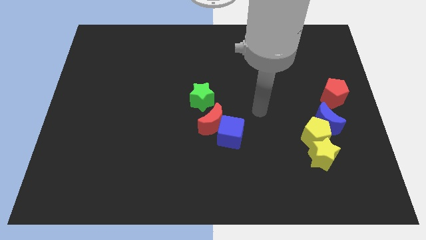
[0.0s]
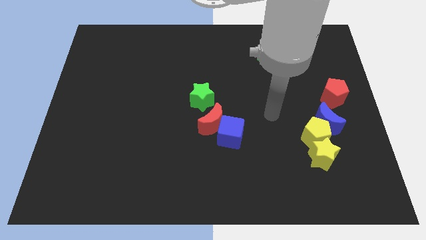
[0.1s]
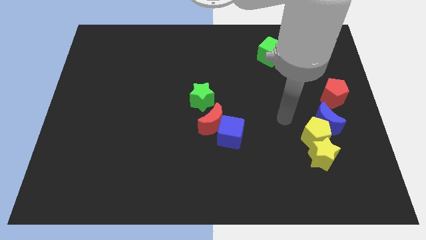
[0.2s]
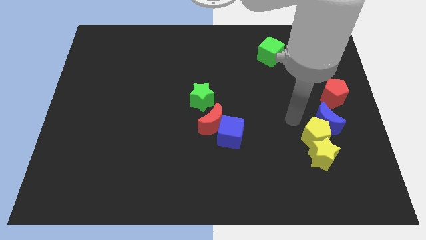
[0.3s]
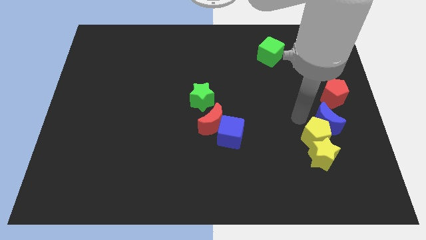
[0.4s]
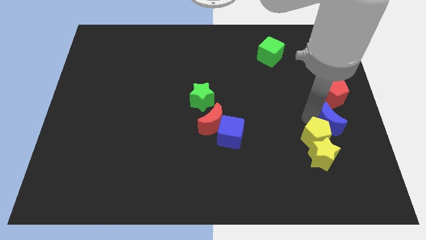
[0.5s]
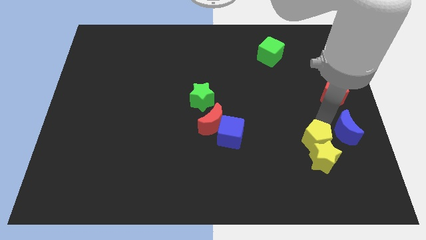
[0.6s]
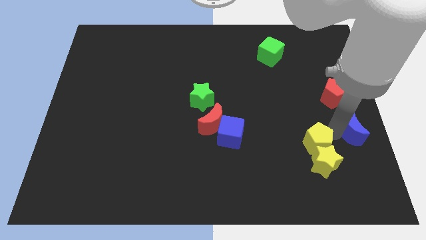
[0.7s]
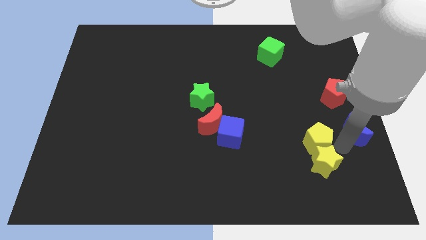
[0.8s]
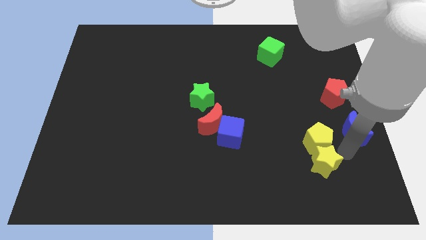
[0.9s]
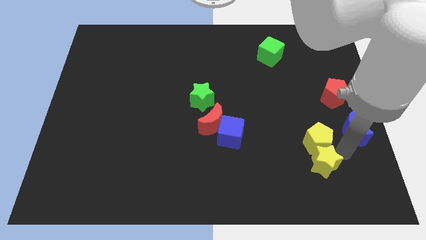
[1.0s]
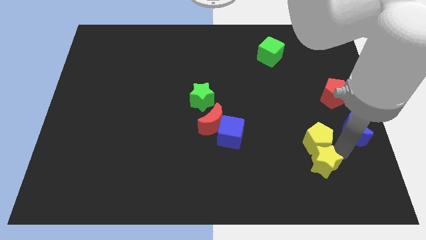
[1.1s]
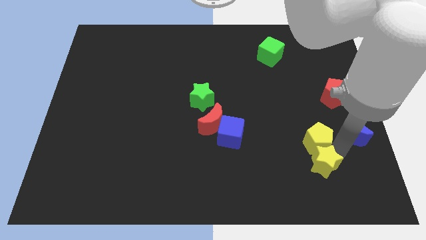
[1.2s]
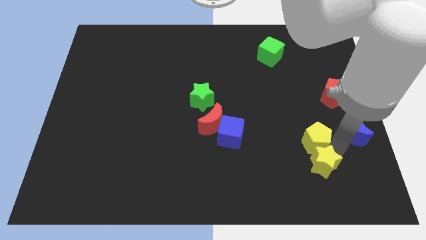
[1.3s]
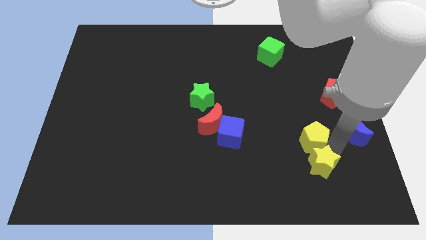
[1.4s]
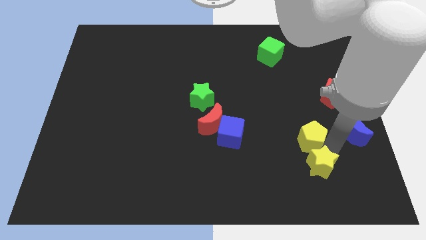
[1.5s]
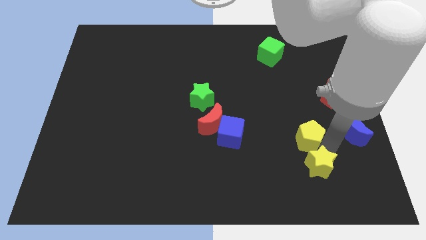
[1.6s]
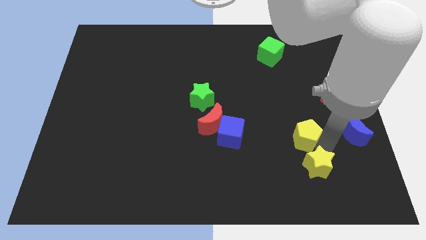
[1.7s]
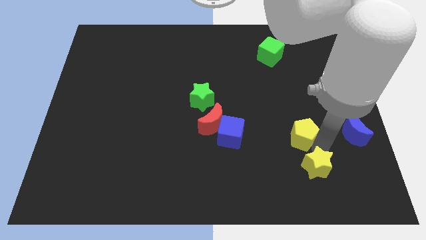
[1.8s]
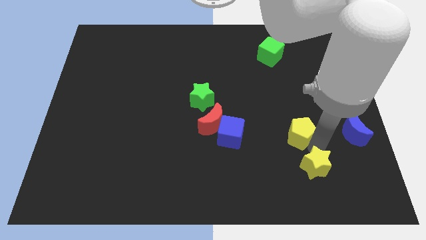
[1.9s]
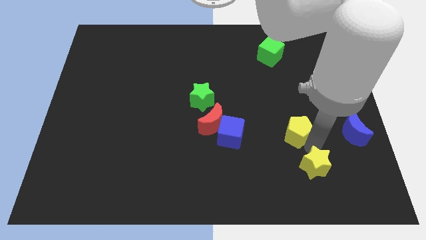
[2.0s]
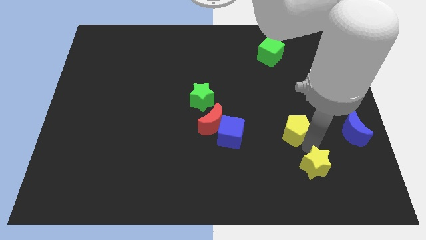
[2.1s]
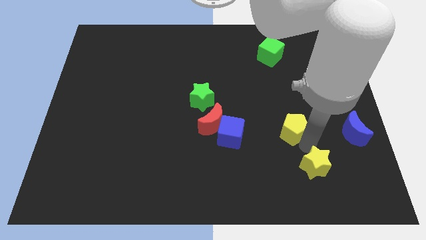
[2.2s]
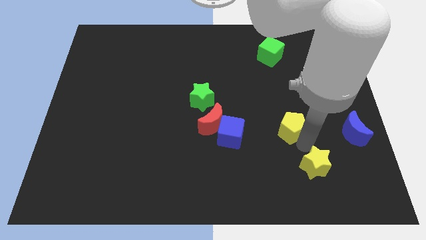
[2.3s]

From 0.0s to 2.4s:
move the yellow pentagon away from the blue moon and yellow star

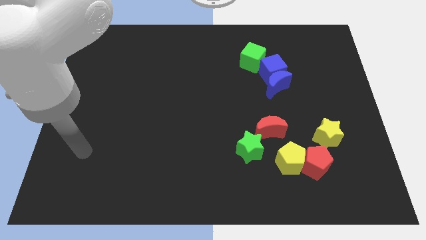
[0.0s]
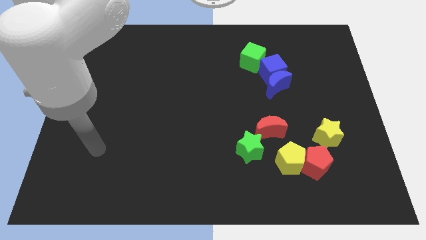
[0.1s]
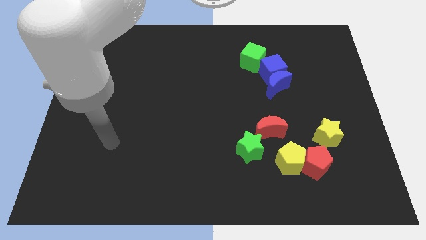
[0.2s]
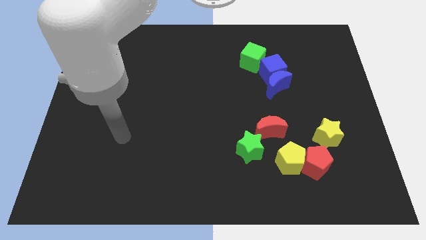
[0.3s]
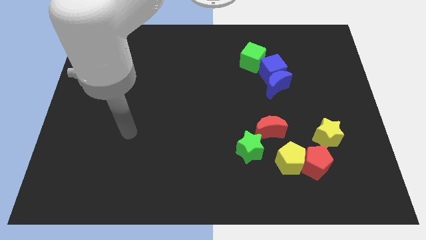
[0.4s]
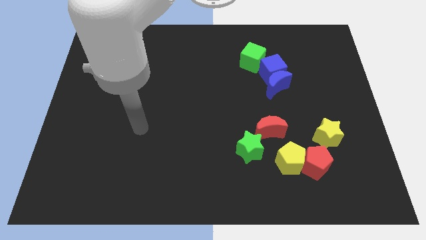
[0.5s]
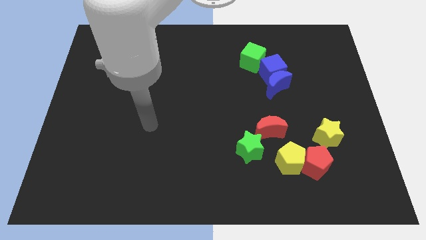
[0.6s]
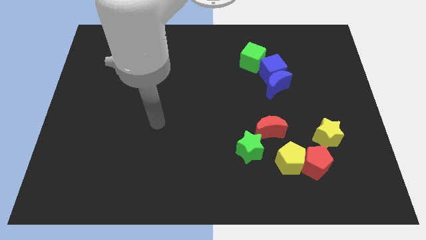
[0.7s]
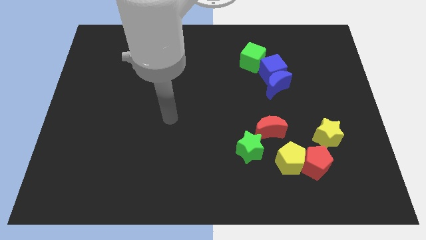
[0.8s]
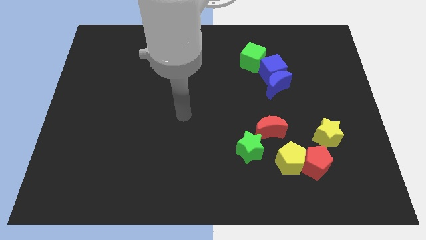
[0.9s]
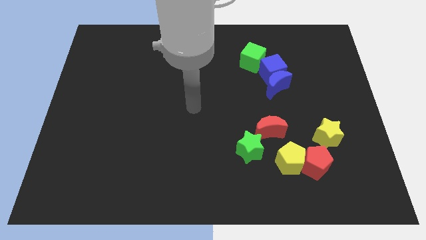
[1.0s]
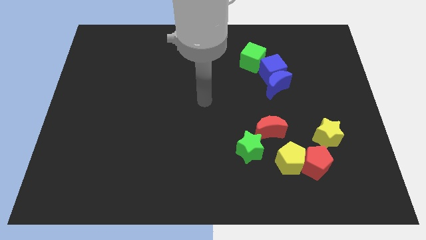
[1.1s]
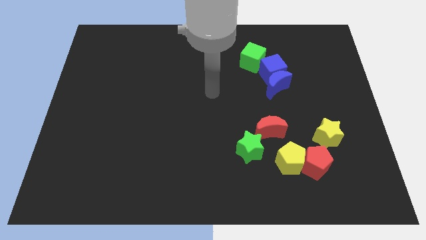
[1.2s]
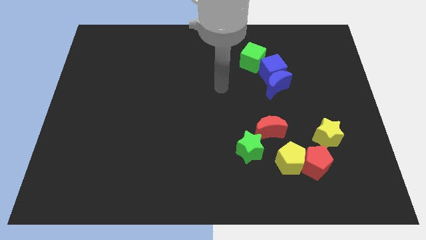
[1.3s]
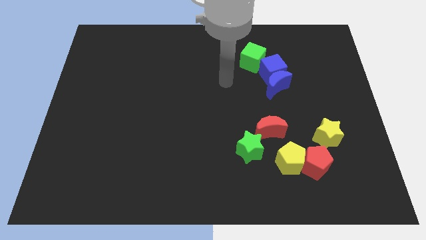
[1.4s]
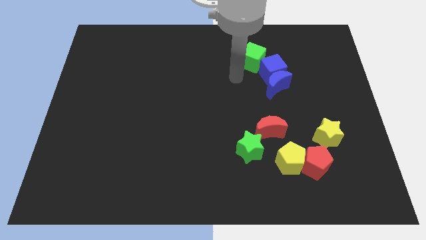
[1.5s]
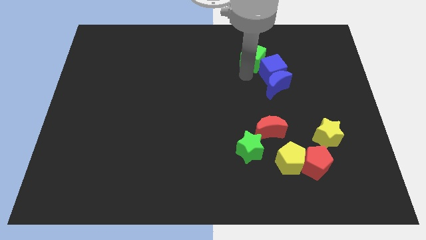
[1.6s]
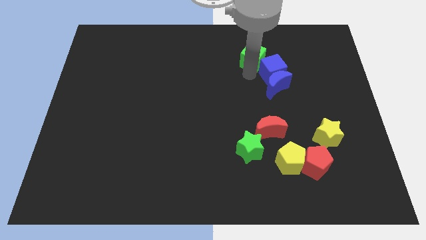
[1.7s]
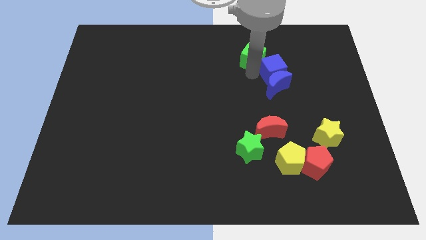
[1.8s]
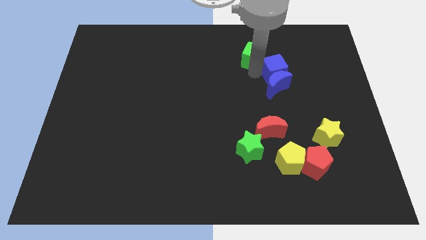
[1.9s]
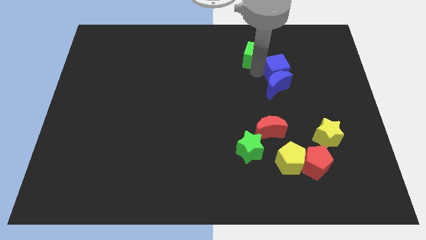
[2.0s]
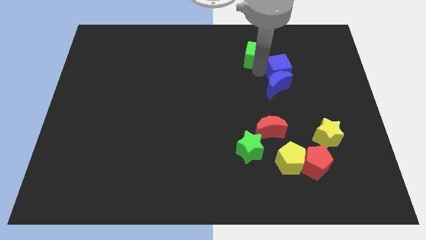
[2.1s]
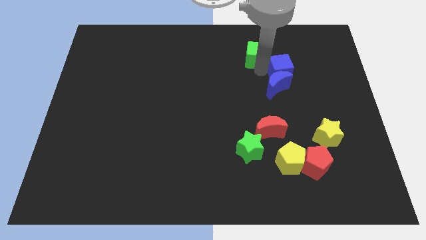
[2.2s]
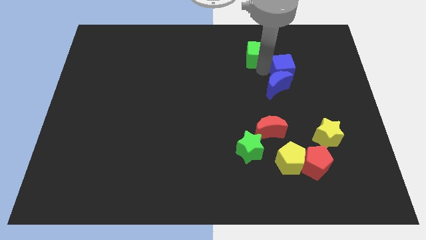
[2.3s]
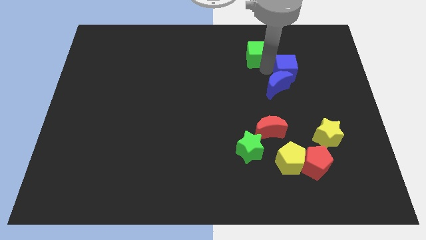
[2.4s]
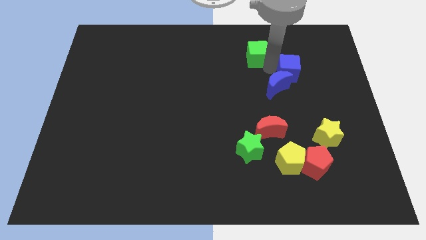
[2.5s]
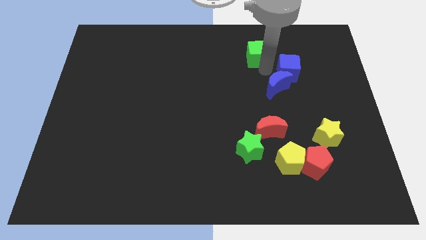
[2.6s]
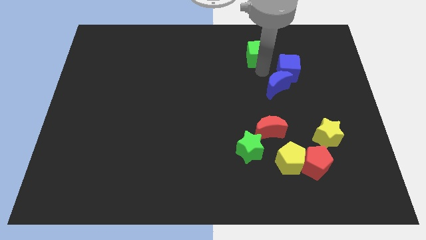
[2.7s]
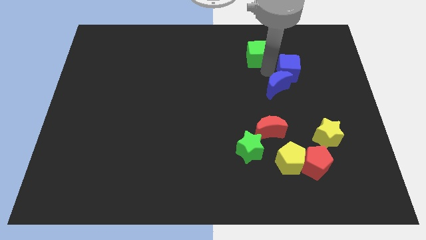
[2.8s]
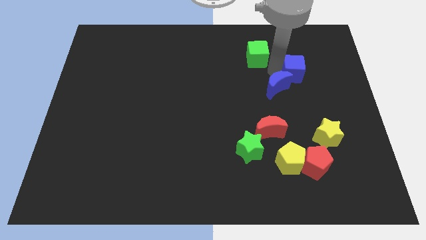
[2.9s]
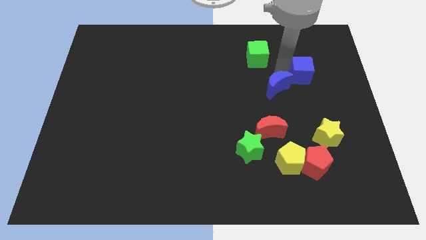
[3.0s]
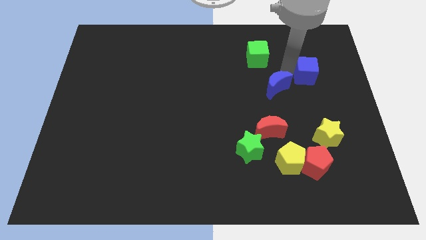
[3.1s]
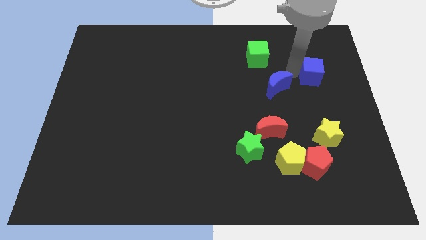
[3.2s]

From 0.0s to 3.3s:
pull the blue cube apart from the blue moon and green cube

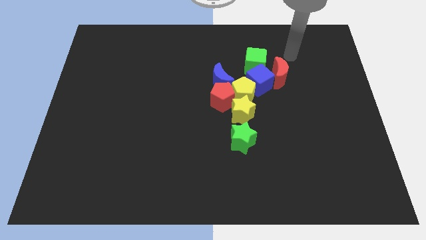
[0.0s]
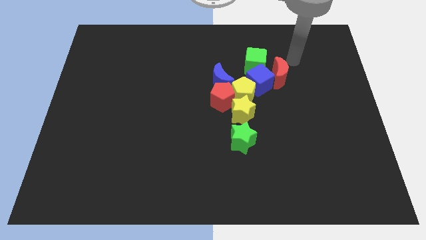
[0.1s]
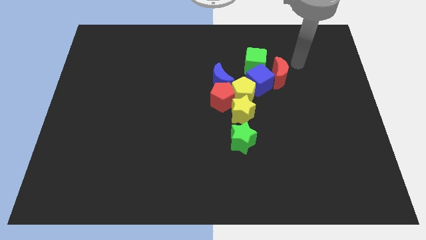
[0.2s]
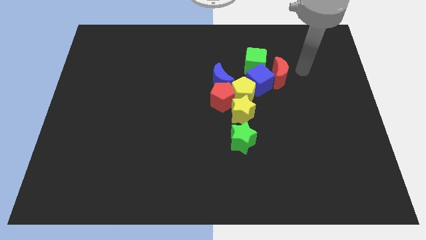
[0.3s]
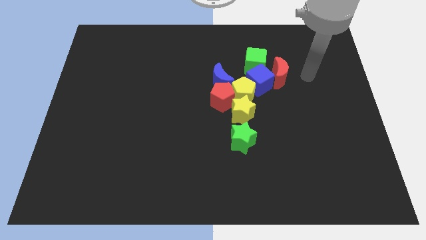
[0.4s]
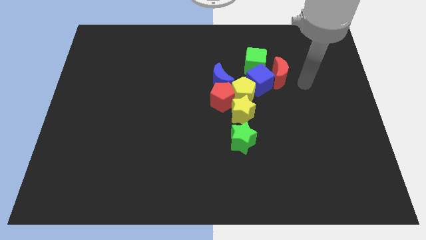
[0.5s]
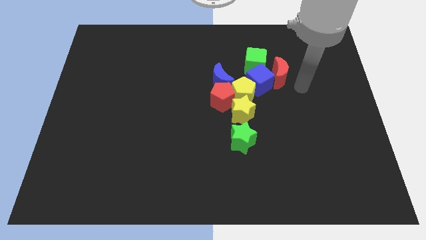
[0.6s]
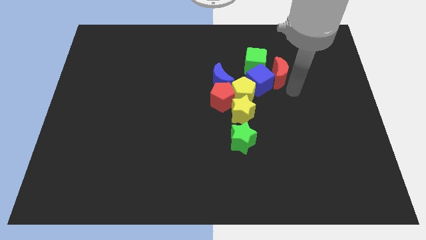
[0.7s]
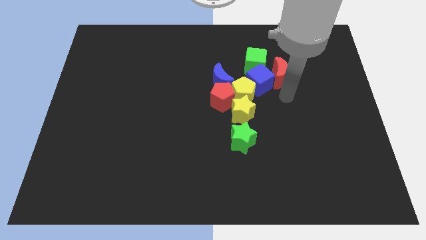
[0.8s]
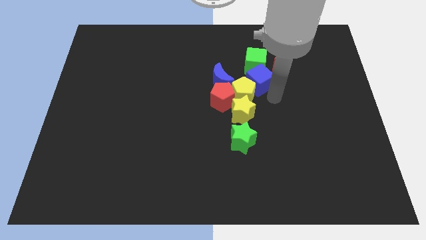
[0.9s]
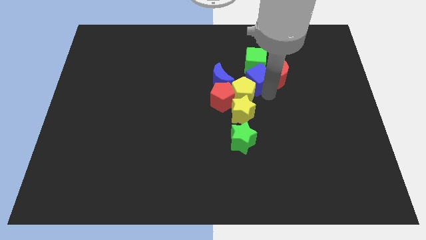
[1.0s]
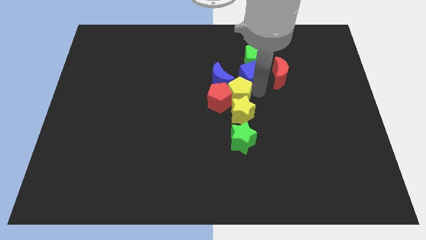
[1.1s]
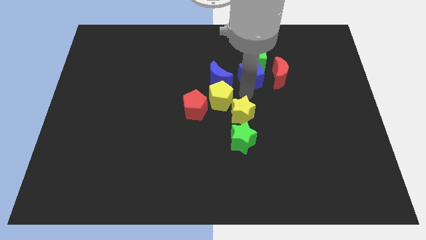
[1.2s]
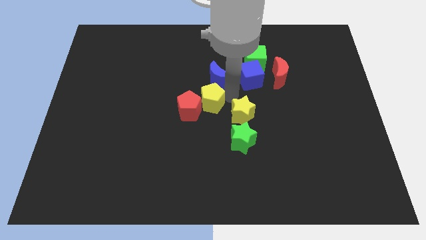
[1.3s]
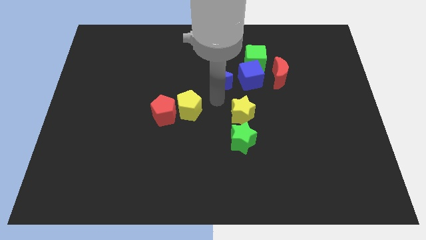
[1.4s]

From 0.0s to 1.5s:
move the red pentagon away from the group

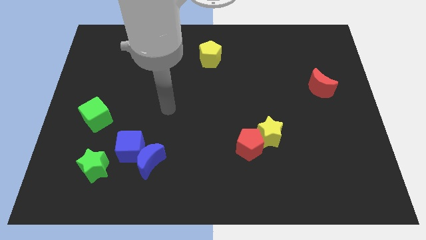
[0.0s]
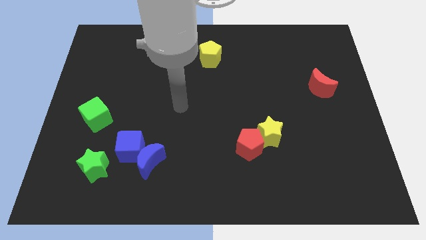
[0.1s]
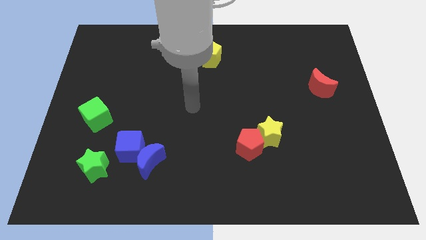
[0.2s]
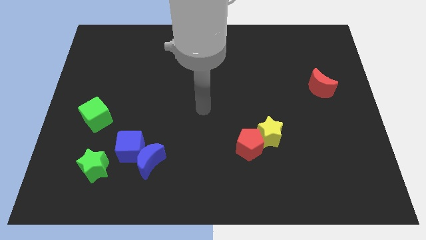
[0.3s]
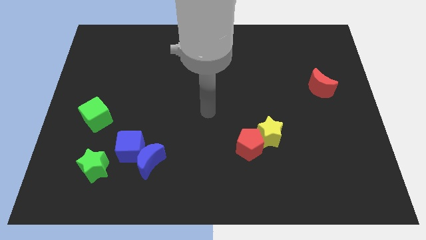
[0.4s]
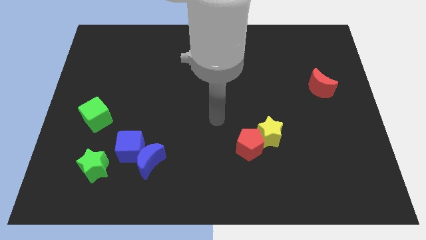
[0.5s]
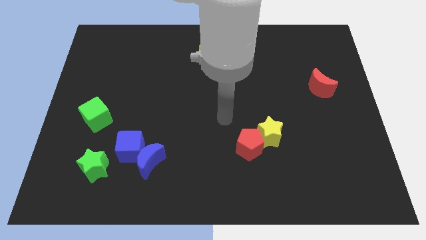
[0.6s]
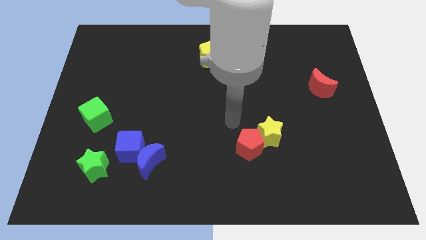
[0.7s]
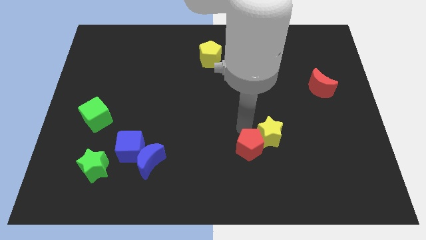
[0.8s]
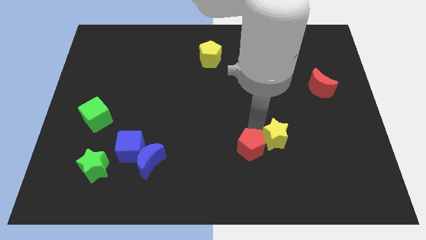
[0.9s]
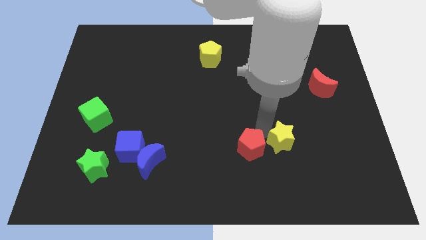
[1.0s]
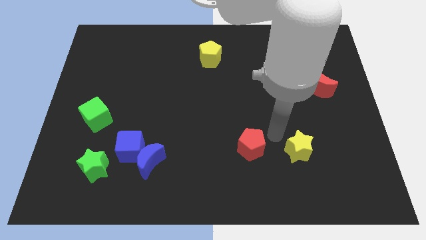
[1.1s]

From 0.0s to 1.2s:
pull the red pentagon apart from the yellow star

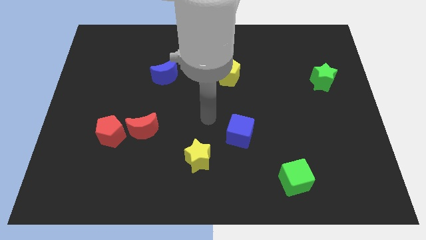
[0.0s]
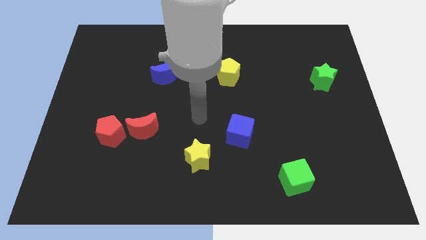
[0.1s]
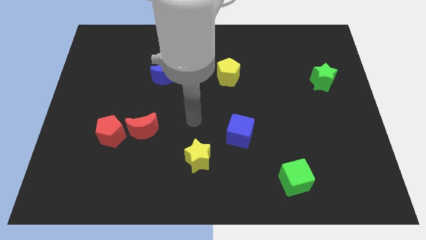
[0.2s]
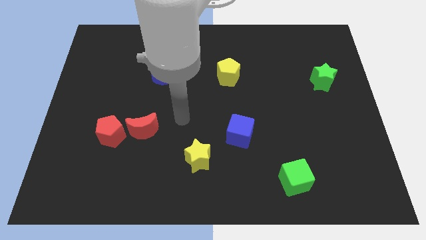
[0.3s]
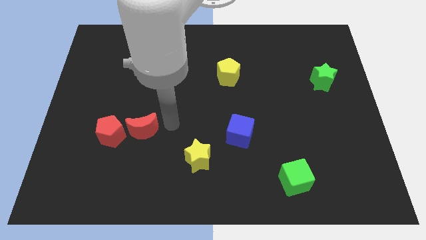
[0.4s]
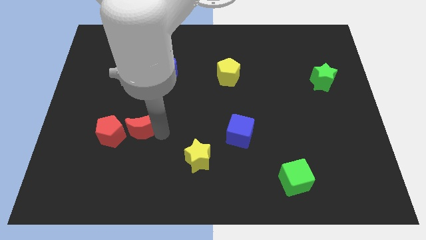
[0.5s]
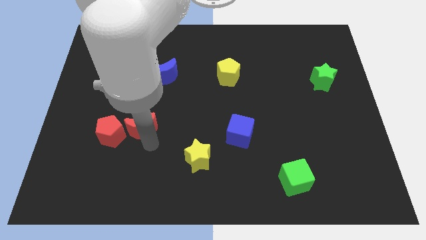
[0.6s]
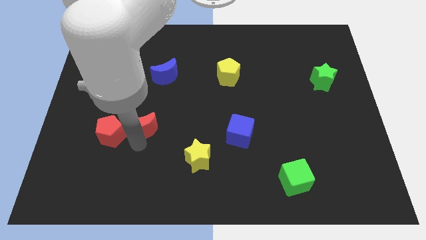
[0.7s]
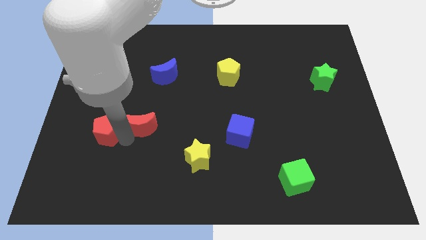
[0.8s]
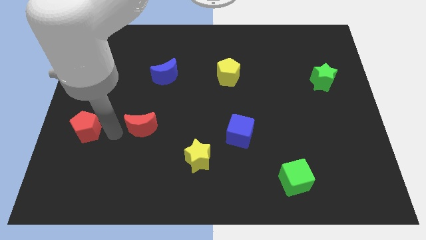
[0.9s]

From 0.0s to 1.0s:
pull the red moon apart from the red pentagon
